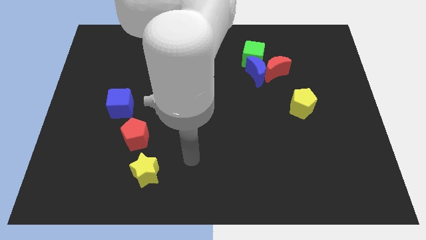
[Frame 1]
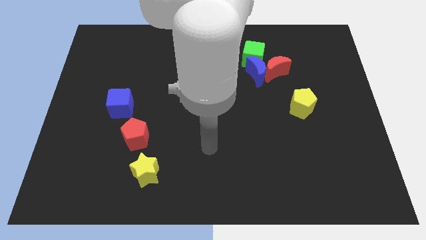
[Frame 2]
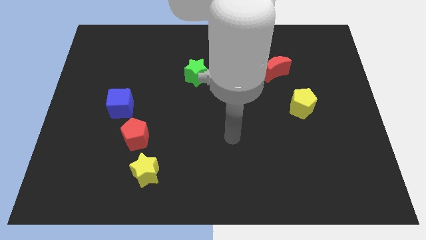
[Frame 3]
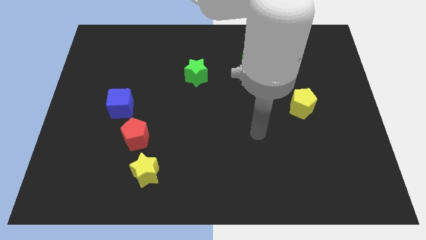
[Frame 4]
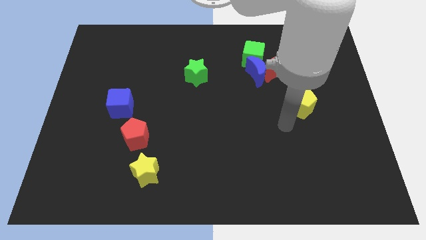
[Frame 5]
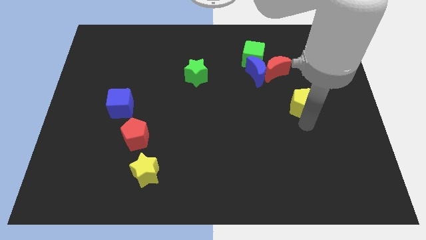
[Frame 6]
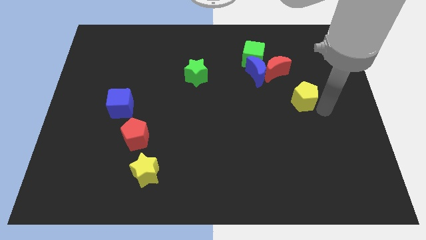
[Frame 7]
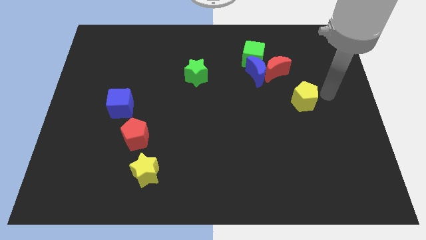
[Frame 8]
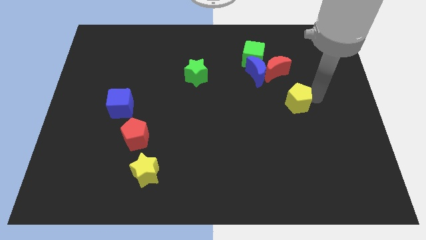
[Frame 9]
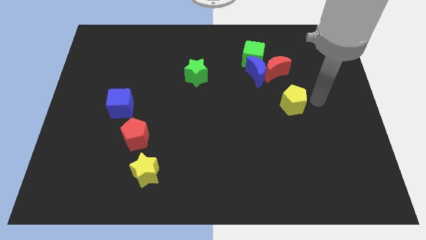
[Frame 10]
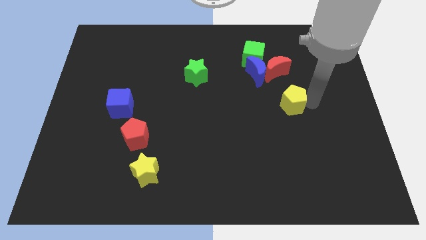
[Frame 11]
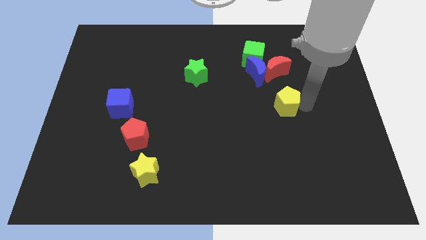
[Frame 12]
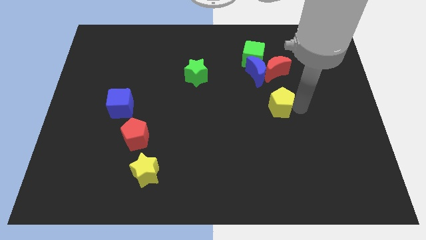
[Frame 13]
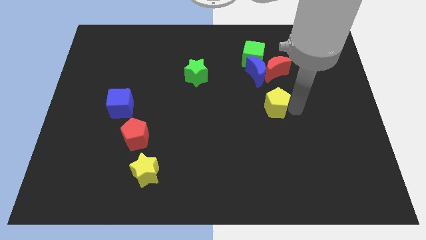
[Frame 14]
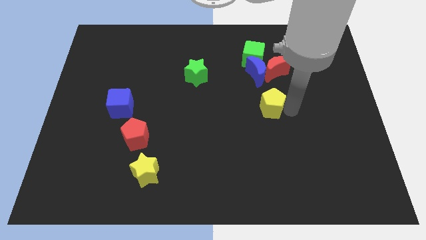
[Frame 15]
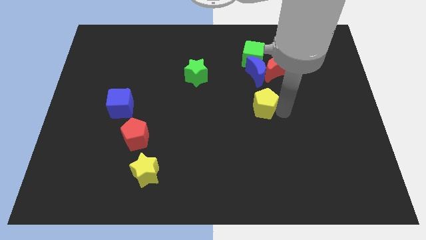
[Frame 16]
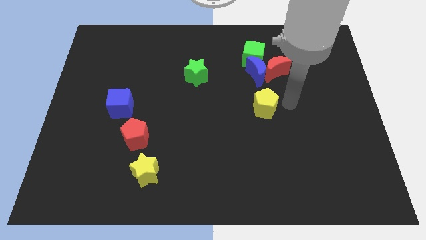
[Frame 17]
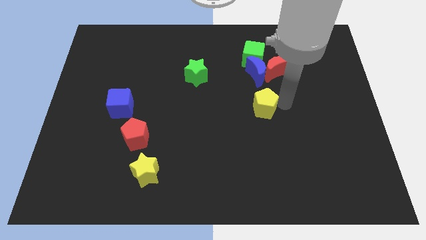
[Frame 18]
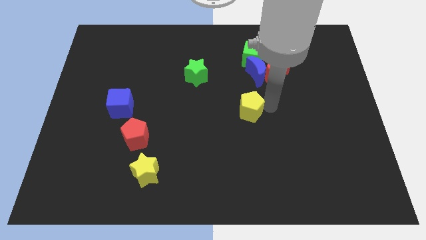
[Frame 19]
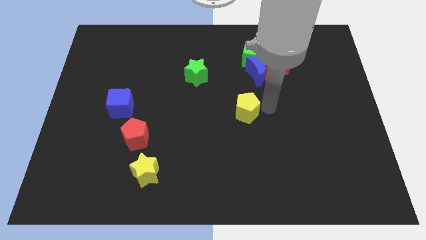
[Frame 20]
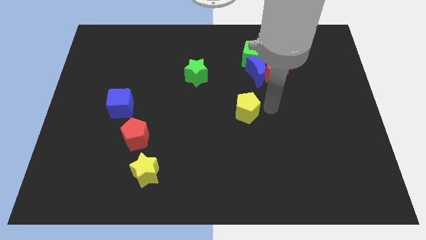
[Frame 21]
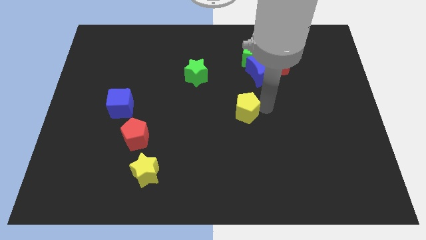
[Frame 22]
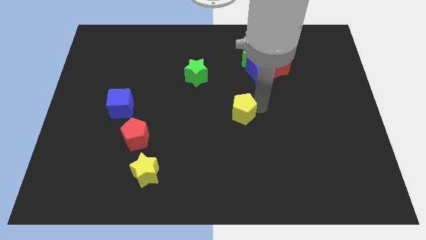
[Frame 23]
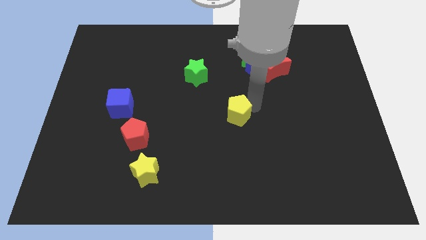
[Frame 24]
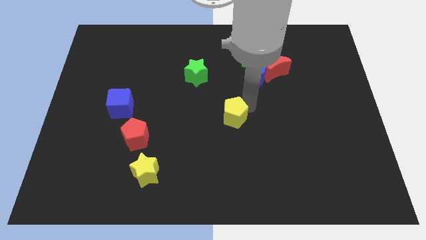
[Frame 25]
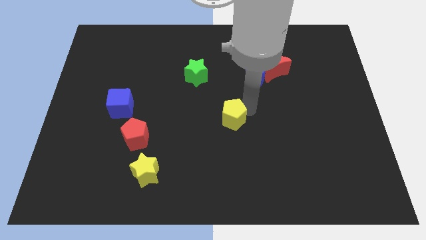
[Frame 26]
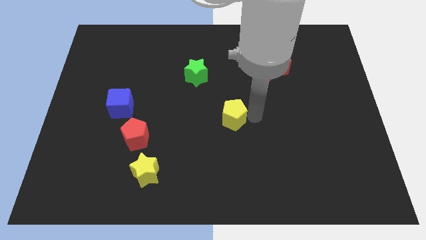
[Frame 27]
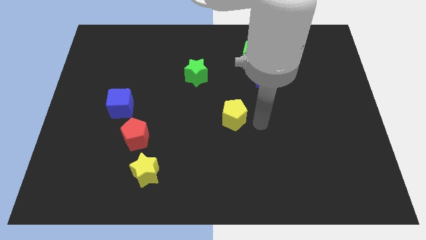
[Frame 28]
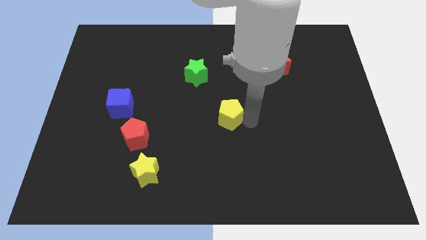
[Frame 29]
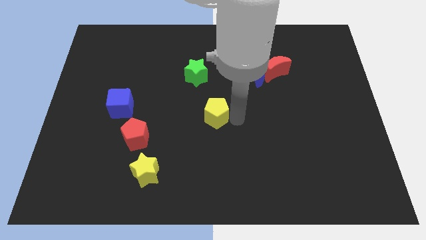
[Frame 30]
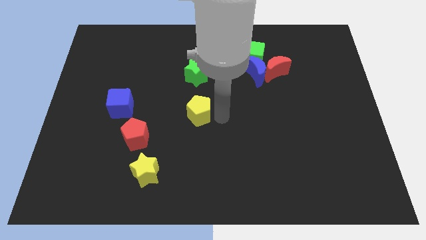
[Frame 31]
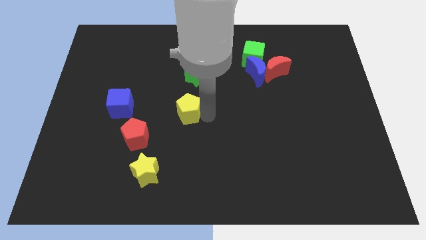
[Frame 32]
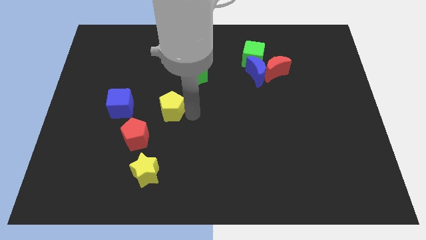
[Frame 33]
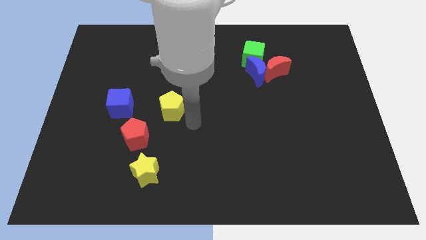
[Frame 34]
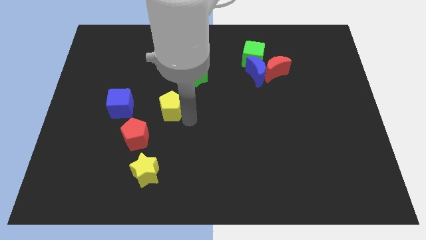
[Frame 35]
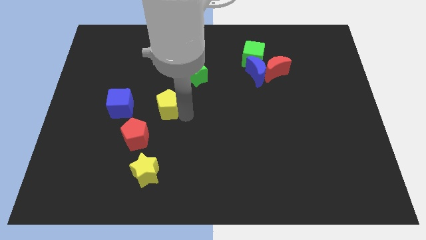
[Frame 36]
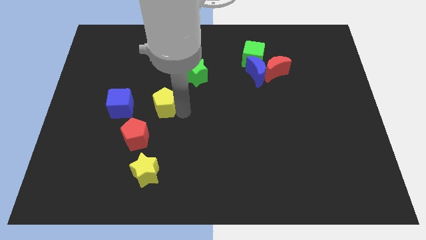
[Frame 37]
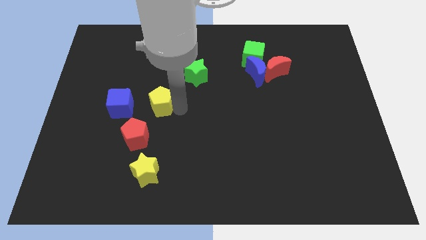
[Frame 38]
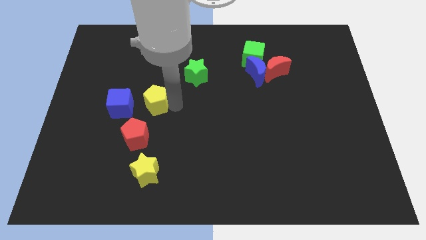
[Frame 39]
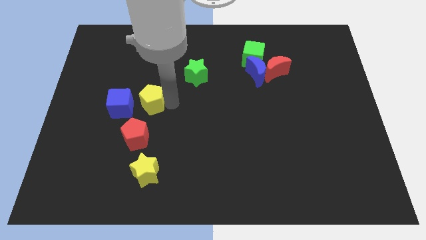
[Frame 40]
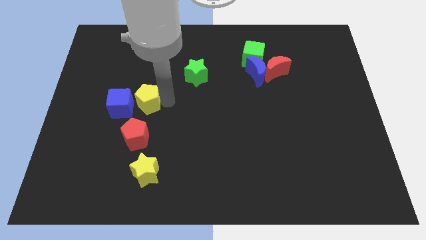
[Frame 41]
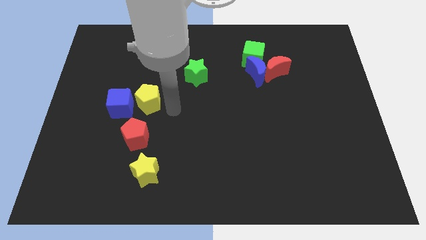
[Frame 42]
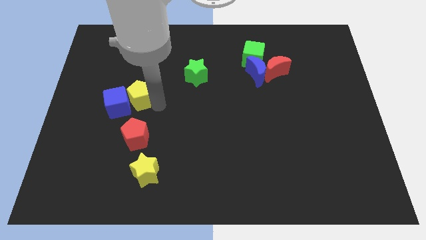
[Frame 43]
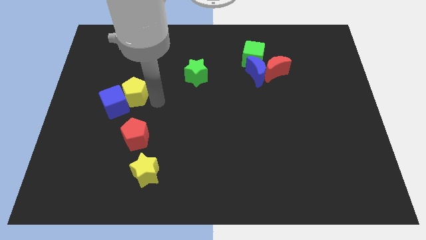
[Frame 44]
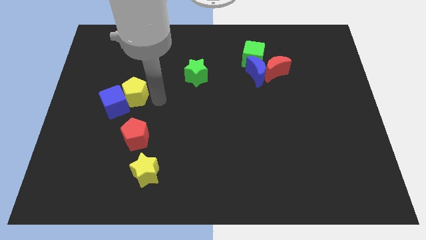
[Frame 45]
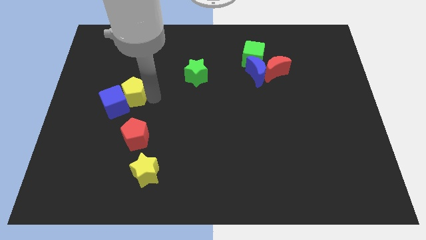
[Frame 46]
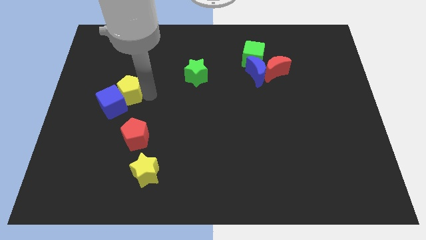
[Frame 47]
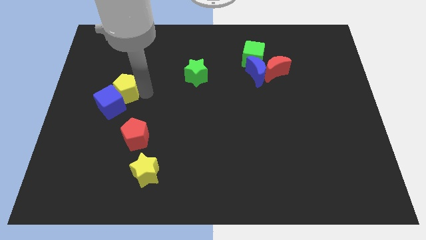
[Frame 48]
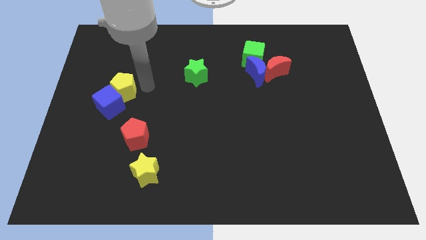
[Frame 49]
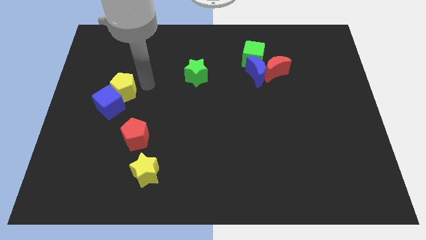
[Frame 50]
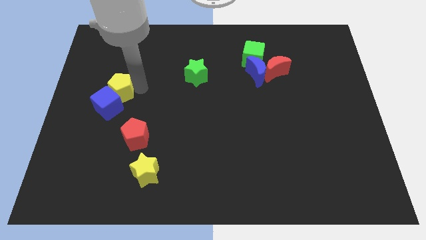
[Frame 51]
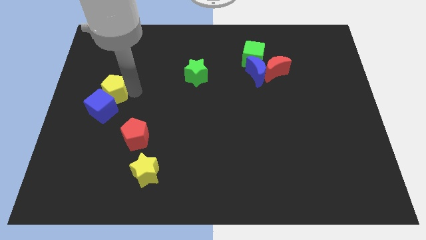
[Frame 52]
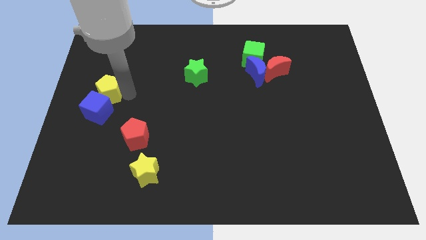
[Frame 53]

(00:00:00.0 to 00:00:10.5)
put the yellow pentagon to the center left

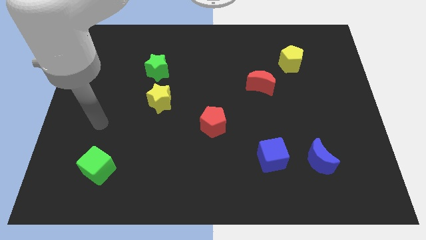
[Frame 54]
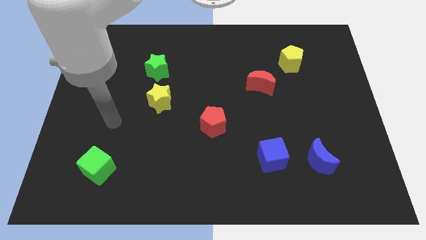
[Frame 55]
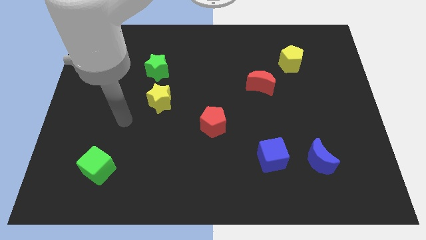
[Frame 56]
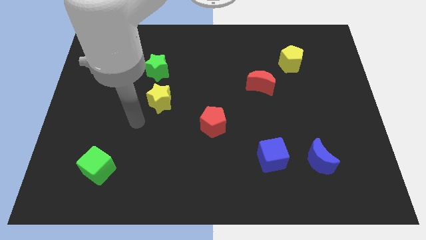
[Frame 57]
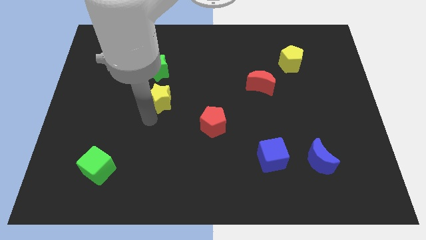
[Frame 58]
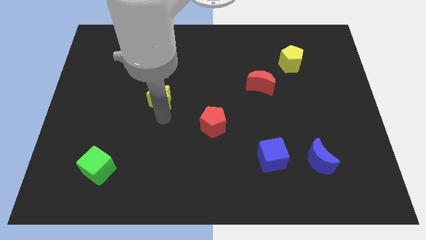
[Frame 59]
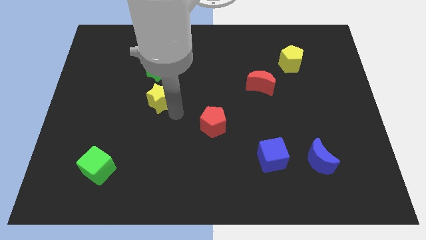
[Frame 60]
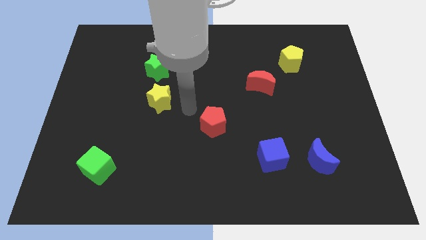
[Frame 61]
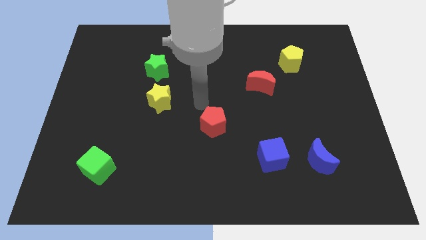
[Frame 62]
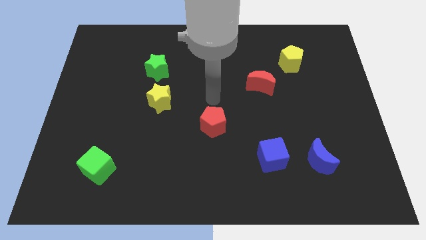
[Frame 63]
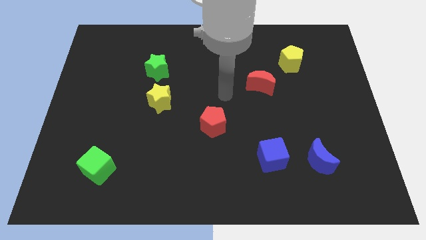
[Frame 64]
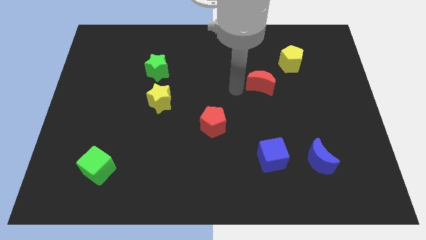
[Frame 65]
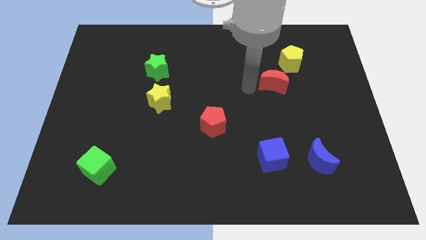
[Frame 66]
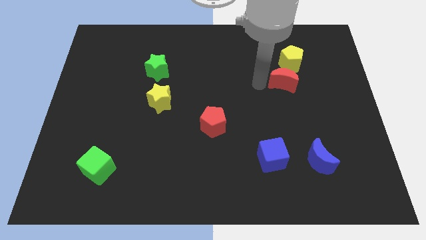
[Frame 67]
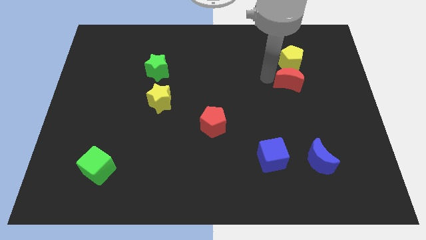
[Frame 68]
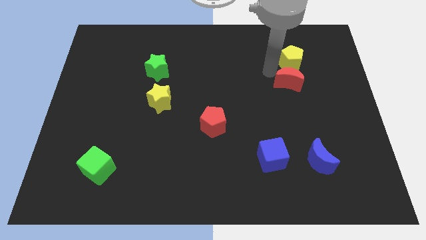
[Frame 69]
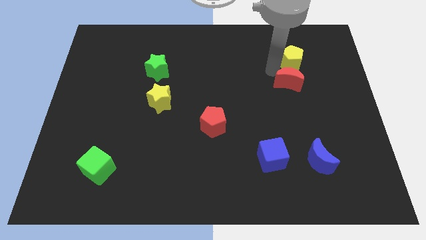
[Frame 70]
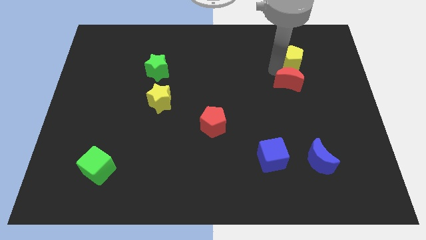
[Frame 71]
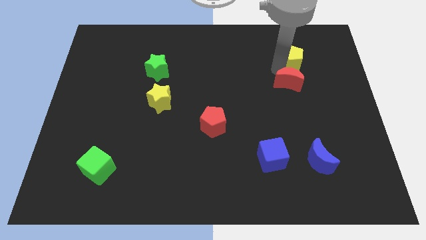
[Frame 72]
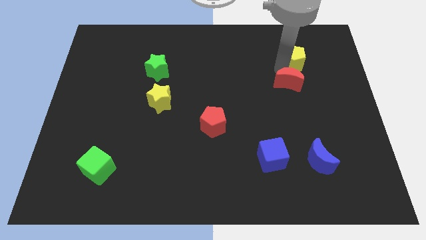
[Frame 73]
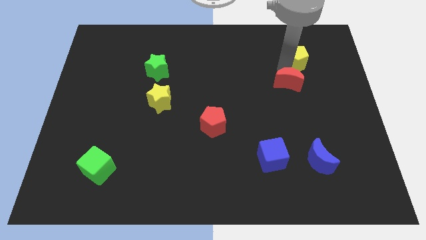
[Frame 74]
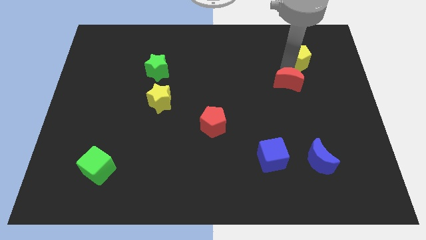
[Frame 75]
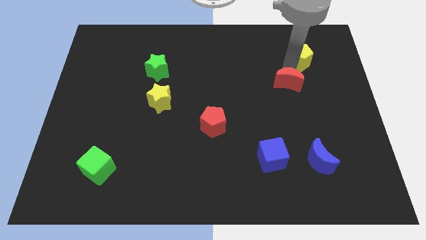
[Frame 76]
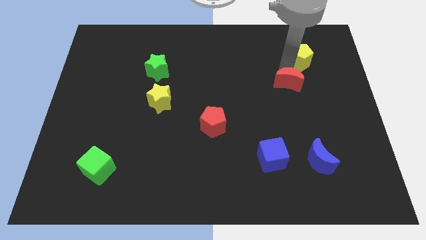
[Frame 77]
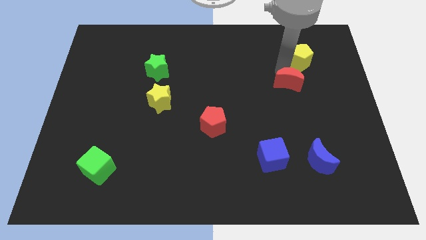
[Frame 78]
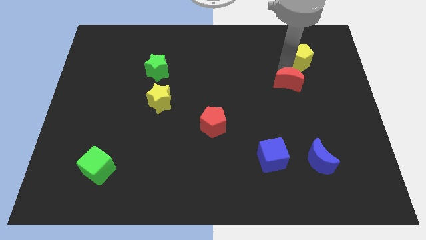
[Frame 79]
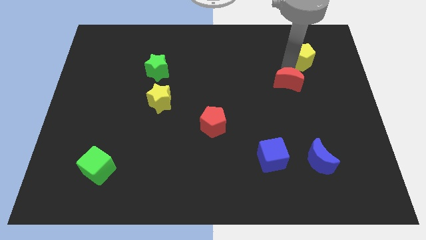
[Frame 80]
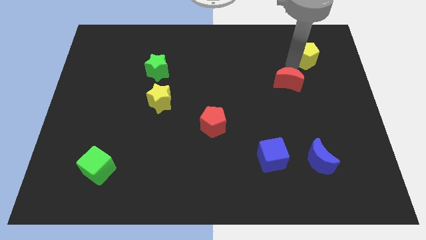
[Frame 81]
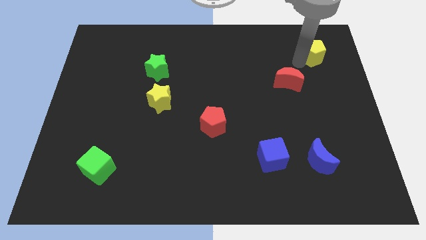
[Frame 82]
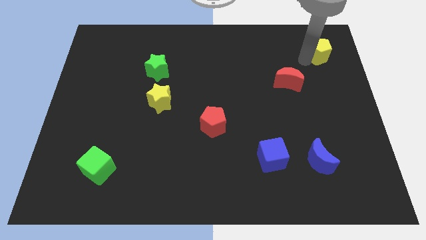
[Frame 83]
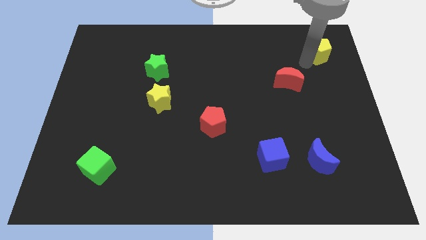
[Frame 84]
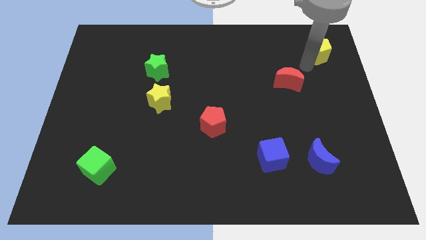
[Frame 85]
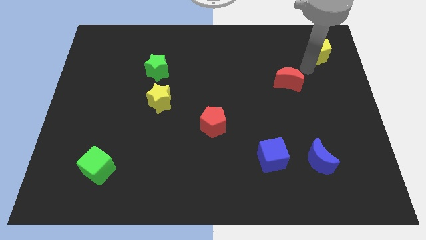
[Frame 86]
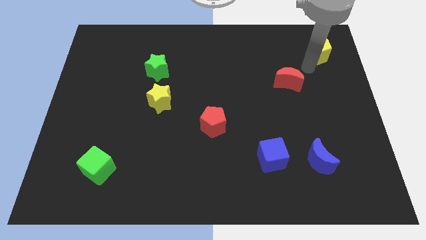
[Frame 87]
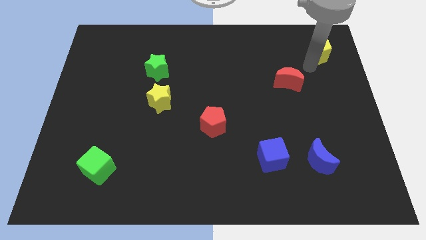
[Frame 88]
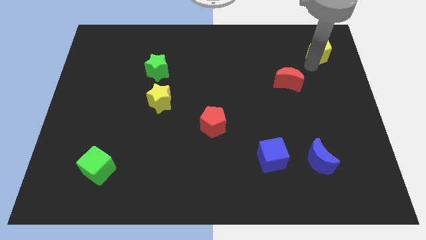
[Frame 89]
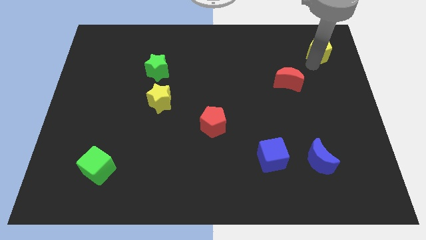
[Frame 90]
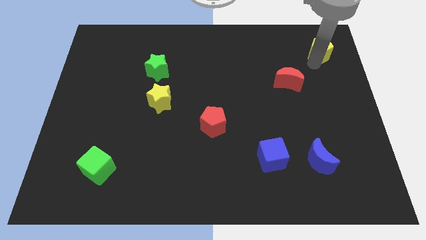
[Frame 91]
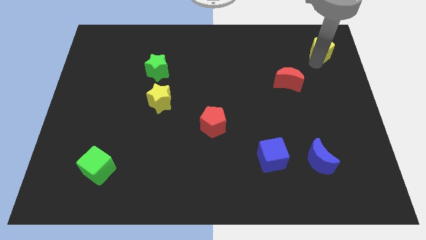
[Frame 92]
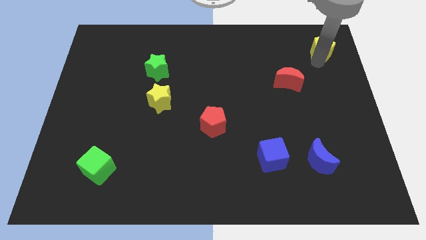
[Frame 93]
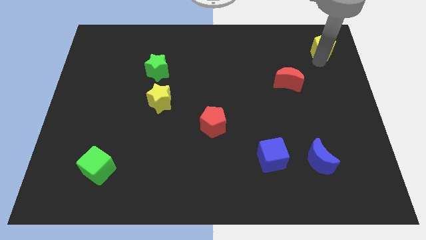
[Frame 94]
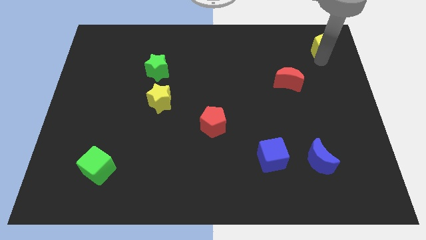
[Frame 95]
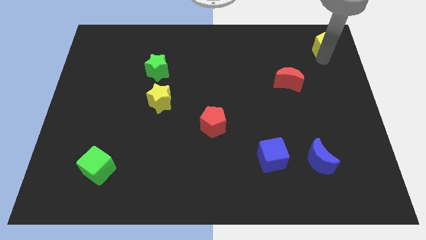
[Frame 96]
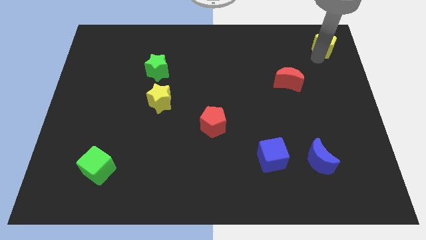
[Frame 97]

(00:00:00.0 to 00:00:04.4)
move the yellow pentagon to the top right of the board
